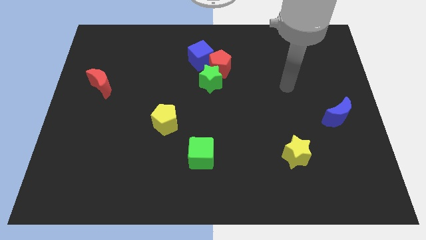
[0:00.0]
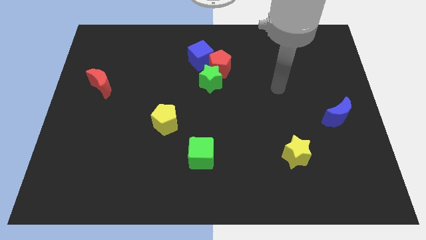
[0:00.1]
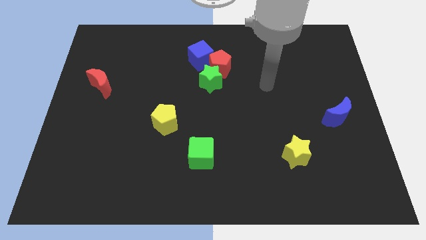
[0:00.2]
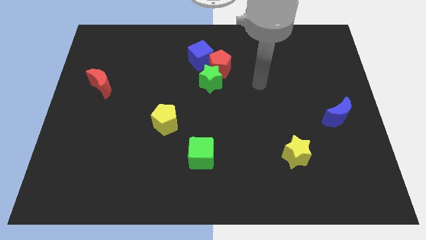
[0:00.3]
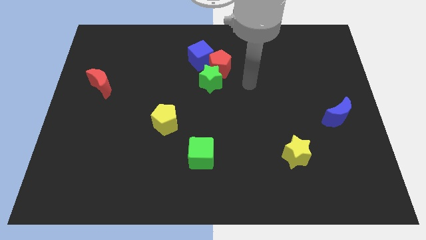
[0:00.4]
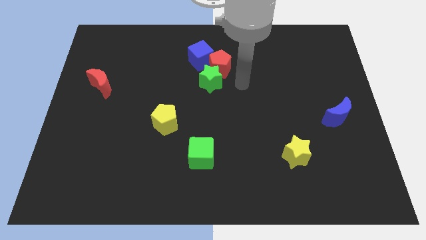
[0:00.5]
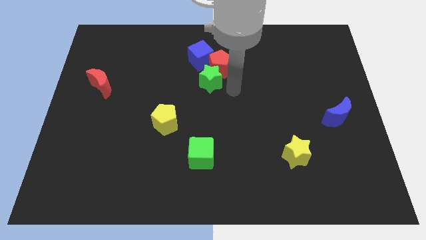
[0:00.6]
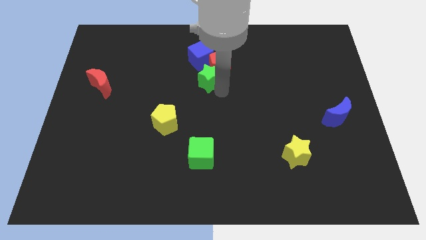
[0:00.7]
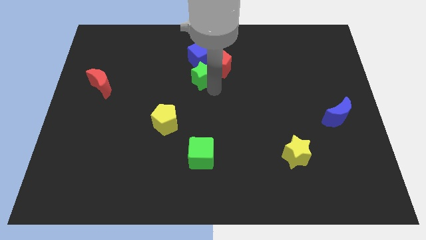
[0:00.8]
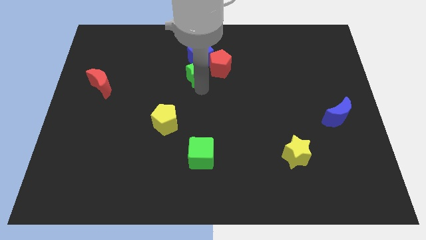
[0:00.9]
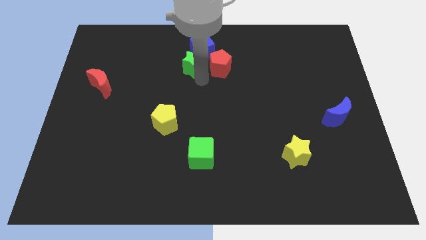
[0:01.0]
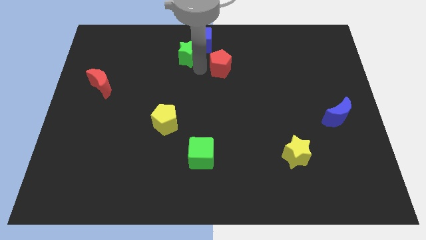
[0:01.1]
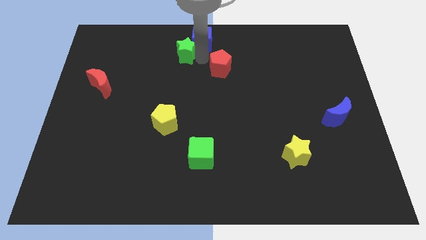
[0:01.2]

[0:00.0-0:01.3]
move the red pentagon away from the green star and blue cube

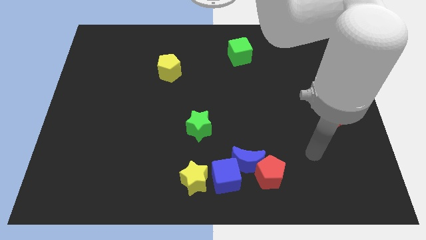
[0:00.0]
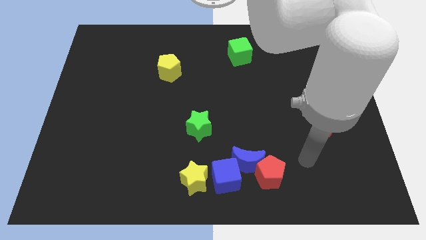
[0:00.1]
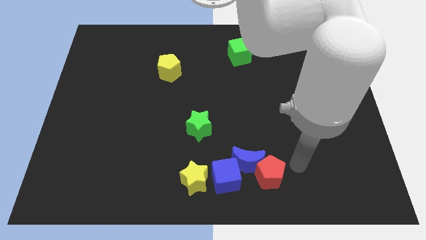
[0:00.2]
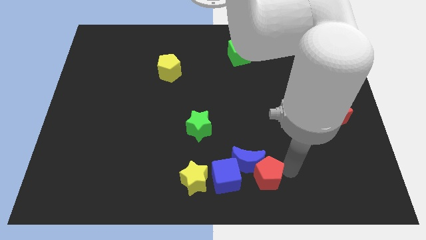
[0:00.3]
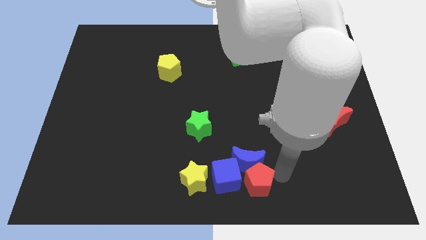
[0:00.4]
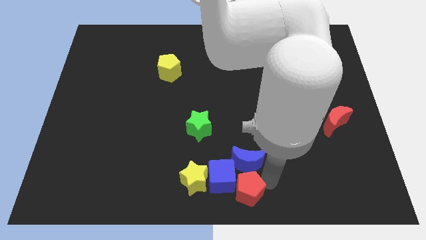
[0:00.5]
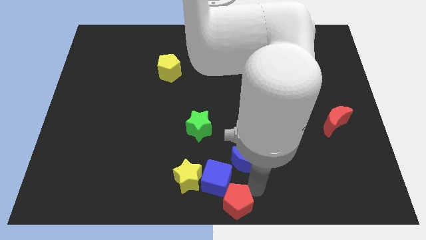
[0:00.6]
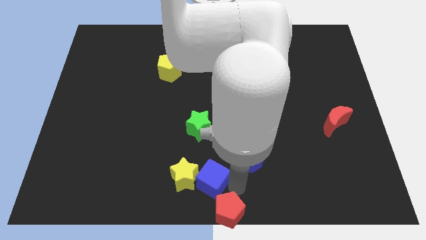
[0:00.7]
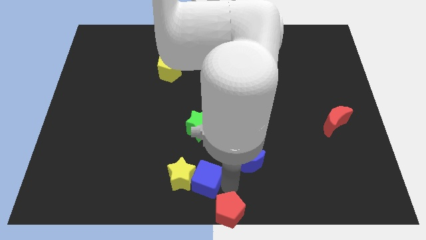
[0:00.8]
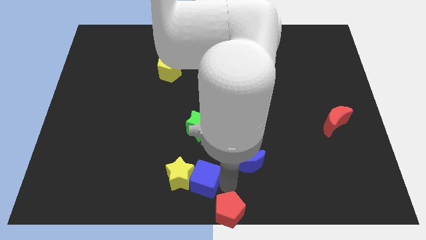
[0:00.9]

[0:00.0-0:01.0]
move the blue moon away from the red pentagon and blue cube

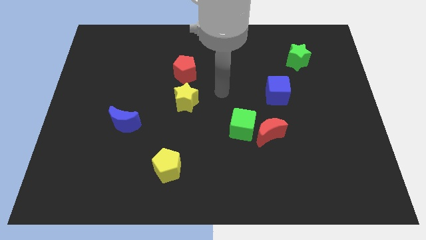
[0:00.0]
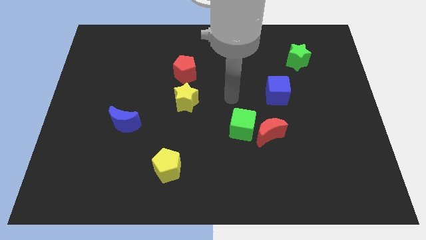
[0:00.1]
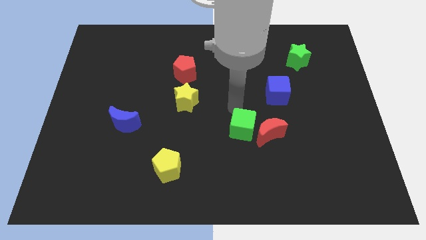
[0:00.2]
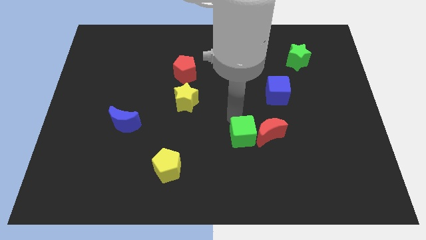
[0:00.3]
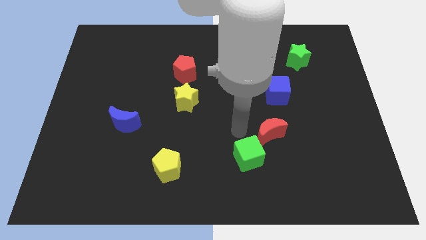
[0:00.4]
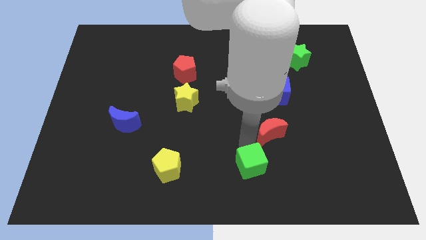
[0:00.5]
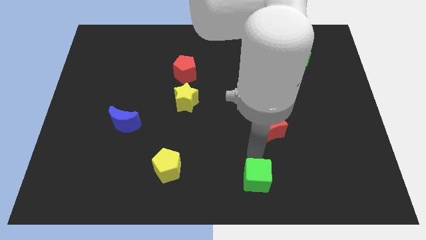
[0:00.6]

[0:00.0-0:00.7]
pull the red moon apart from the green cube

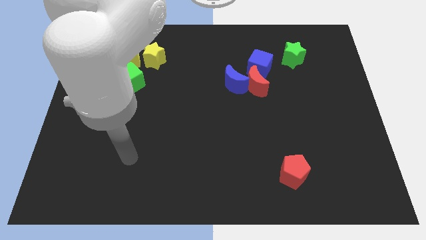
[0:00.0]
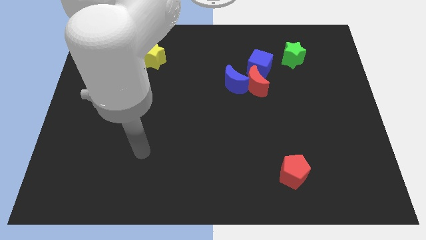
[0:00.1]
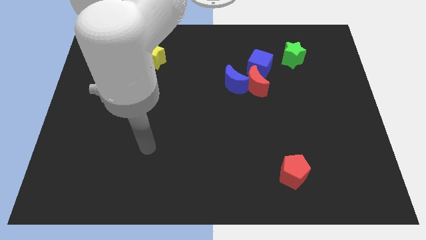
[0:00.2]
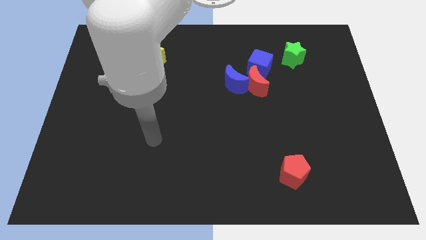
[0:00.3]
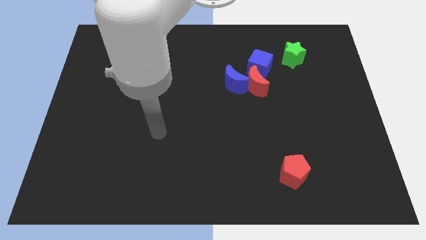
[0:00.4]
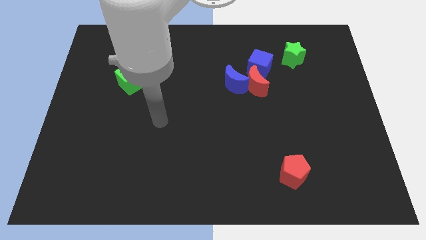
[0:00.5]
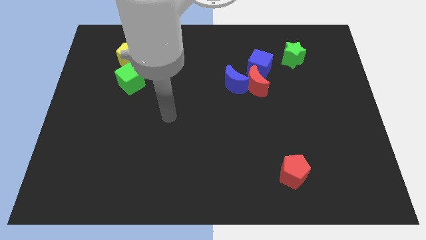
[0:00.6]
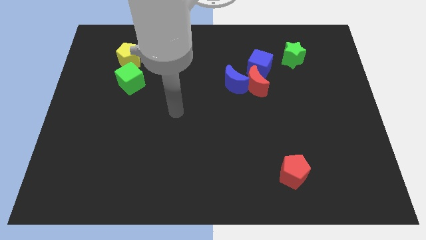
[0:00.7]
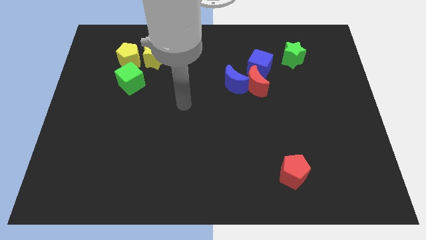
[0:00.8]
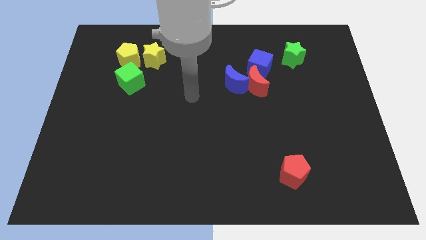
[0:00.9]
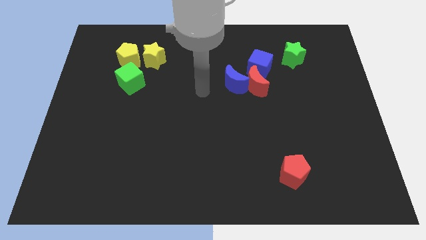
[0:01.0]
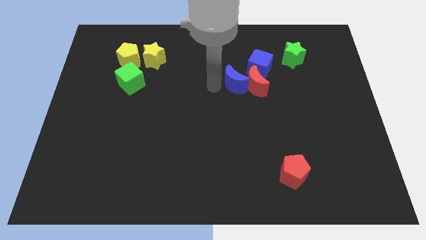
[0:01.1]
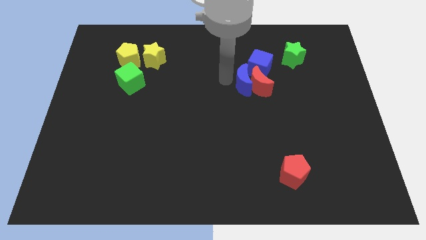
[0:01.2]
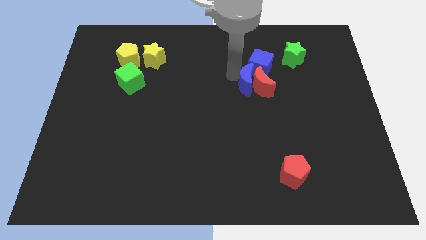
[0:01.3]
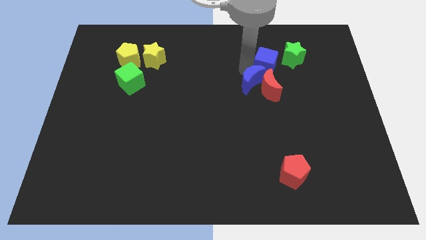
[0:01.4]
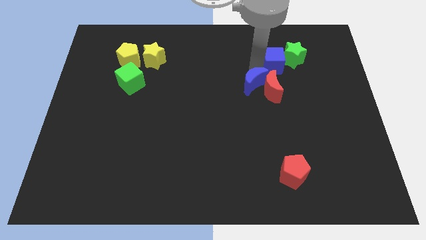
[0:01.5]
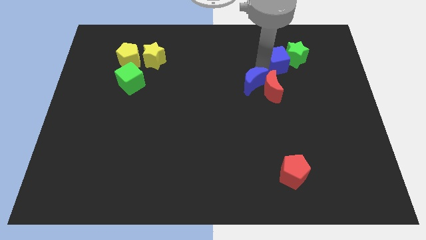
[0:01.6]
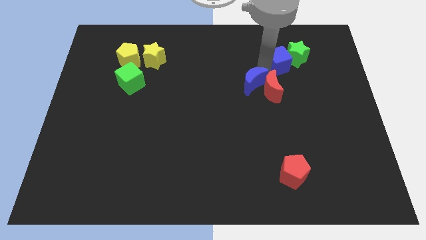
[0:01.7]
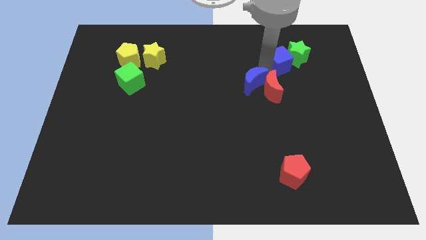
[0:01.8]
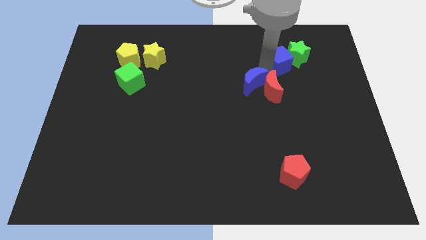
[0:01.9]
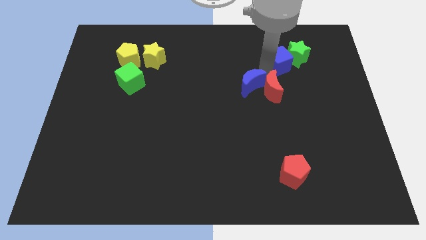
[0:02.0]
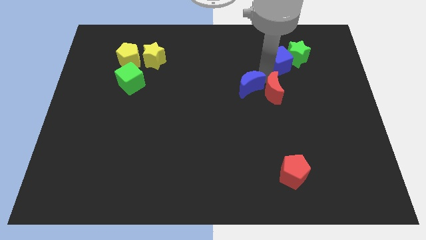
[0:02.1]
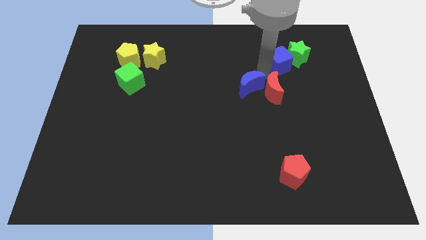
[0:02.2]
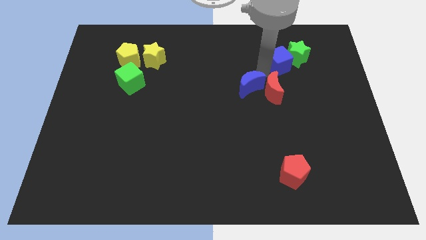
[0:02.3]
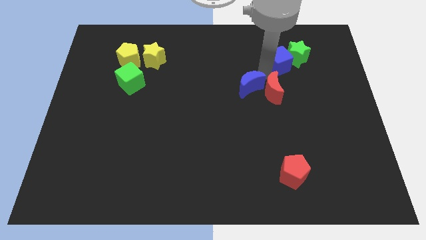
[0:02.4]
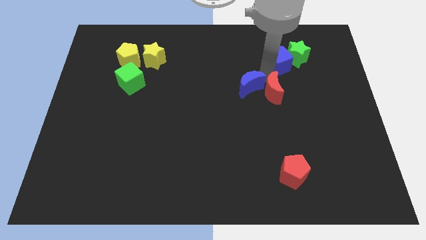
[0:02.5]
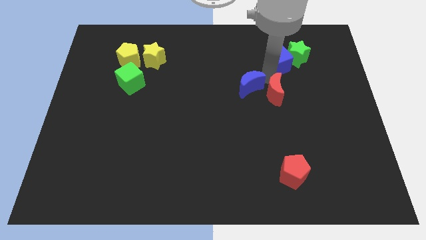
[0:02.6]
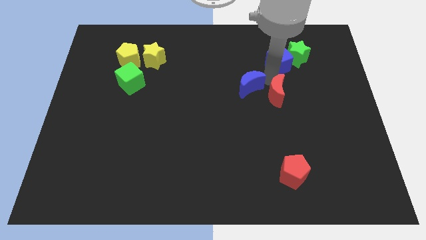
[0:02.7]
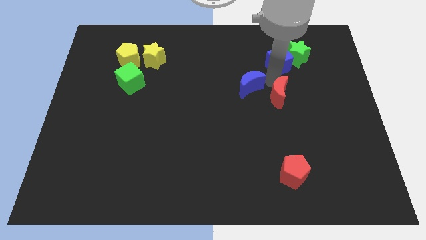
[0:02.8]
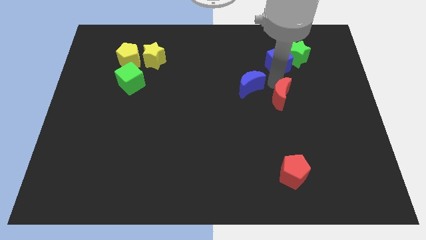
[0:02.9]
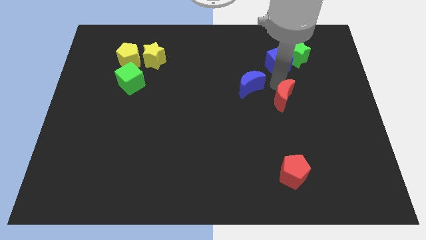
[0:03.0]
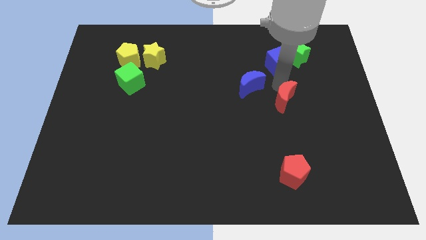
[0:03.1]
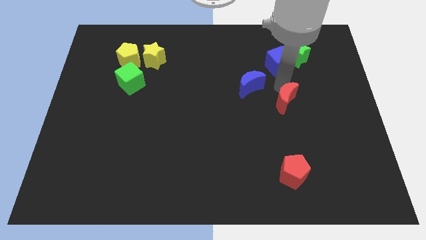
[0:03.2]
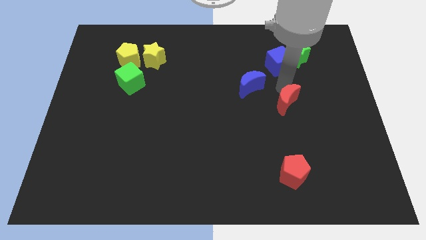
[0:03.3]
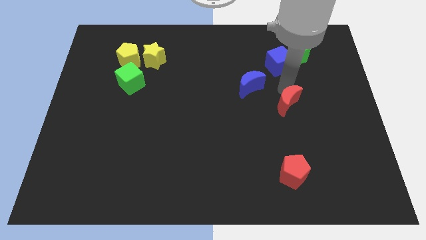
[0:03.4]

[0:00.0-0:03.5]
separate the red moon from the blue moon and blue cube

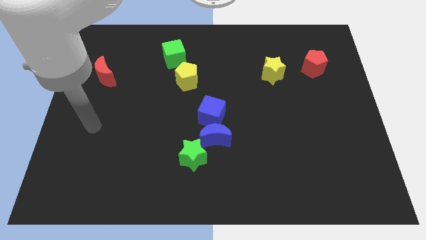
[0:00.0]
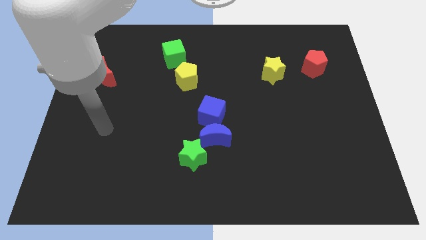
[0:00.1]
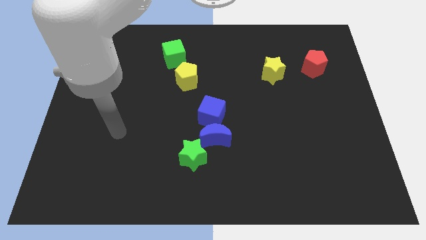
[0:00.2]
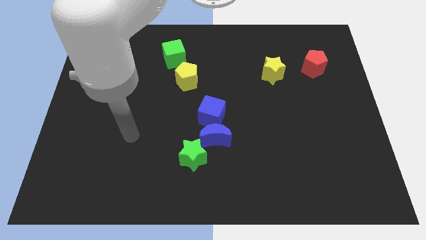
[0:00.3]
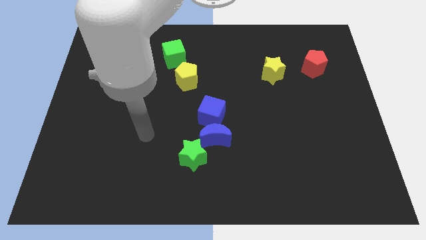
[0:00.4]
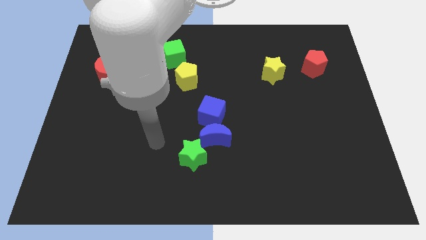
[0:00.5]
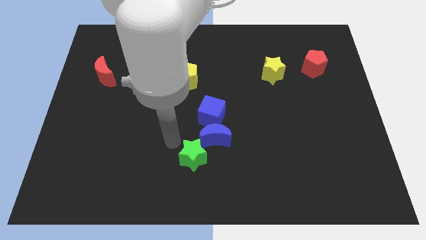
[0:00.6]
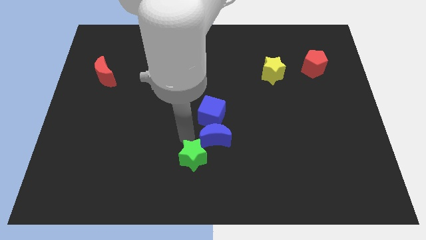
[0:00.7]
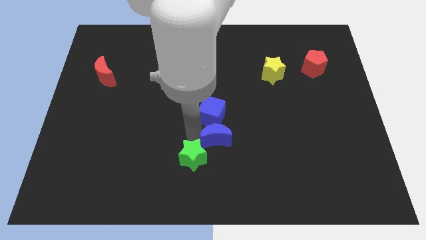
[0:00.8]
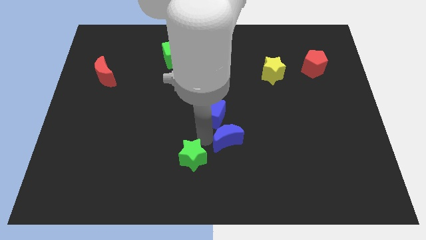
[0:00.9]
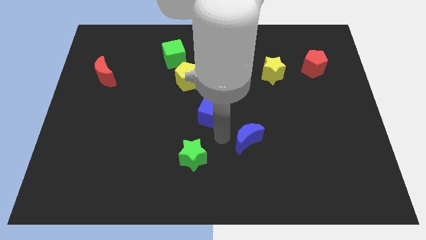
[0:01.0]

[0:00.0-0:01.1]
move the blue cube away from the blue moon

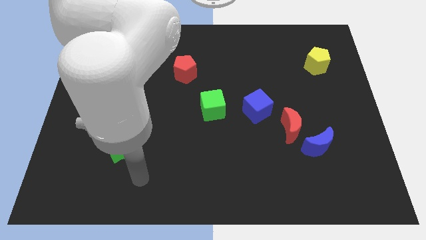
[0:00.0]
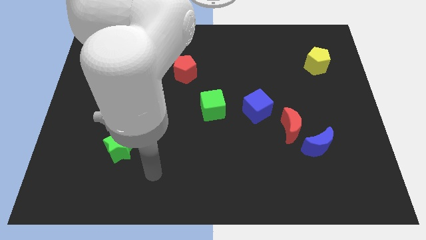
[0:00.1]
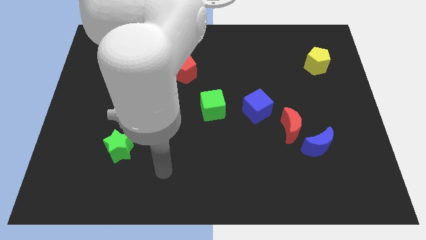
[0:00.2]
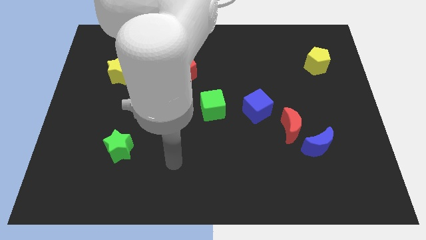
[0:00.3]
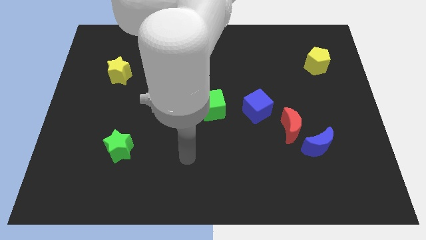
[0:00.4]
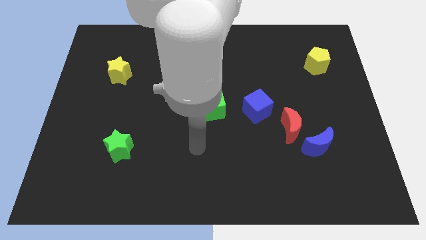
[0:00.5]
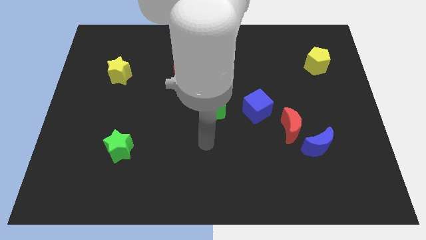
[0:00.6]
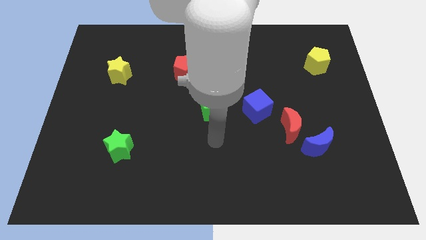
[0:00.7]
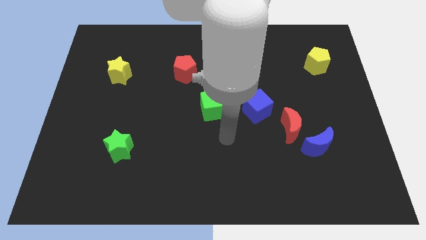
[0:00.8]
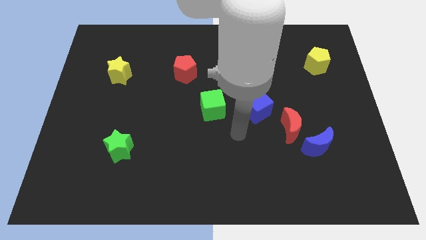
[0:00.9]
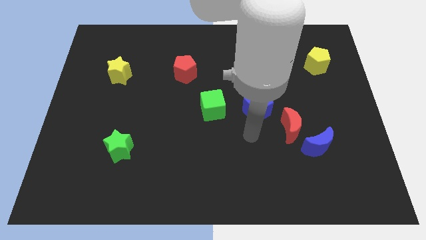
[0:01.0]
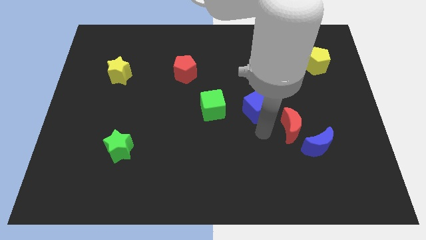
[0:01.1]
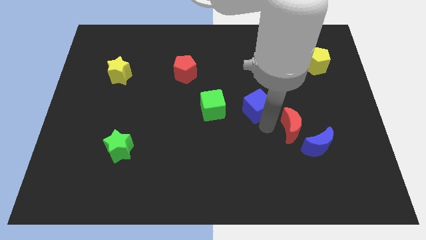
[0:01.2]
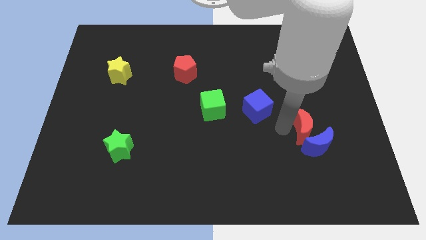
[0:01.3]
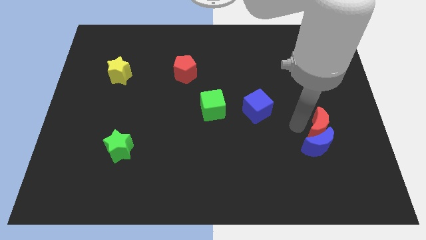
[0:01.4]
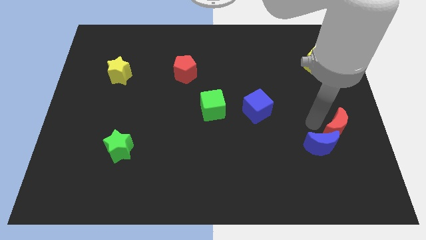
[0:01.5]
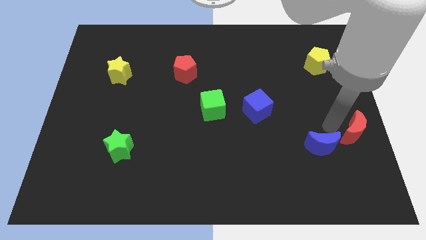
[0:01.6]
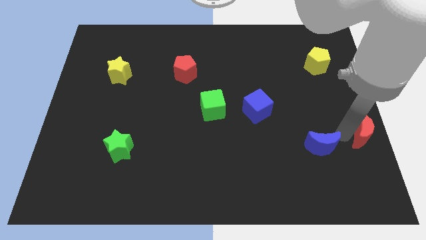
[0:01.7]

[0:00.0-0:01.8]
pull the blue moon apart from the red moon
